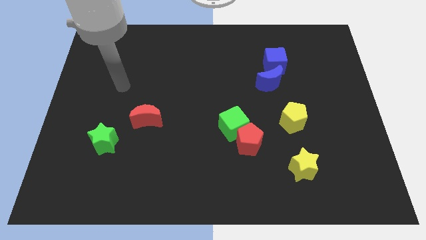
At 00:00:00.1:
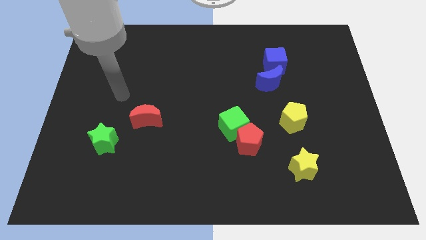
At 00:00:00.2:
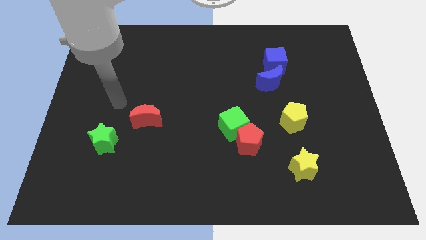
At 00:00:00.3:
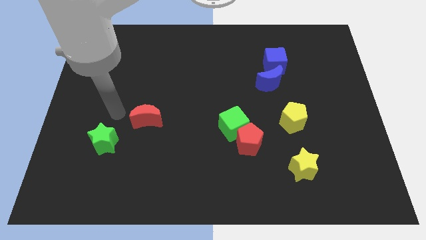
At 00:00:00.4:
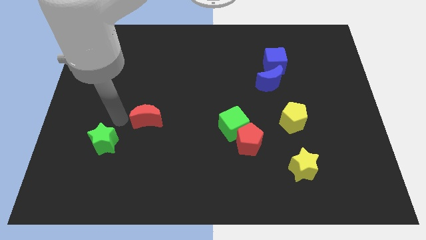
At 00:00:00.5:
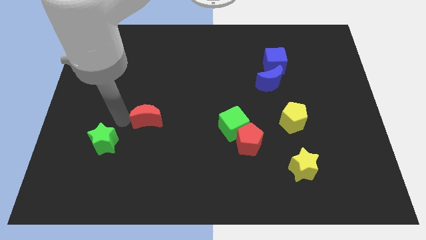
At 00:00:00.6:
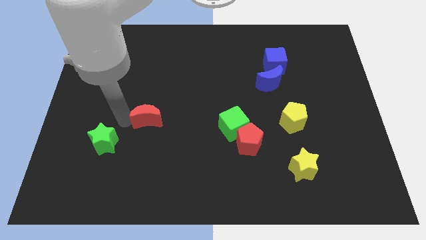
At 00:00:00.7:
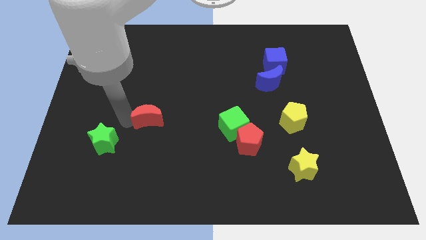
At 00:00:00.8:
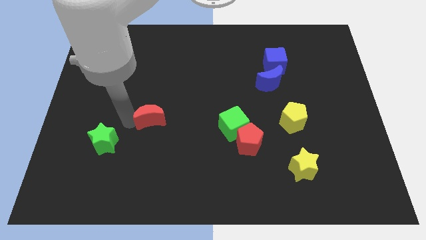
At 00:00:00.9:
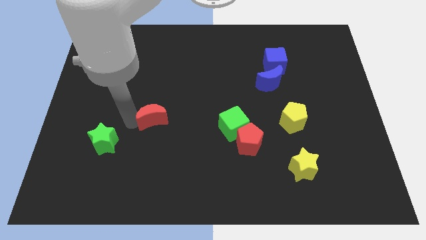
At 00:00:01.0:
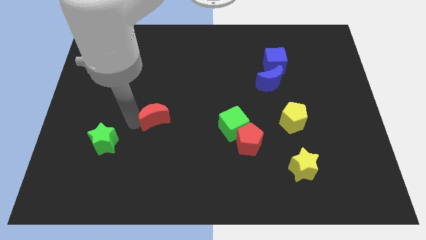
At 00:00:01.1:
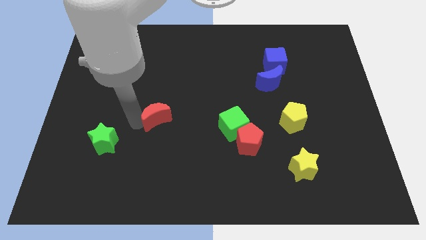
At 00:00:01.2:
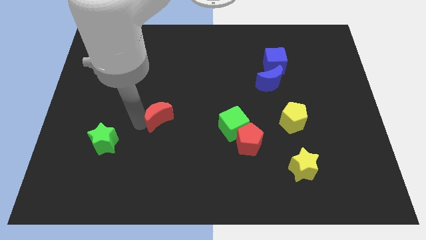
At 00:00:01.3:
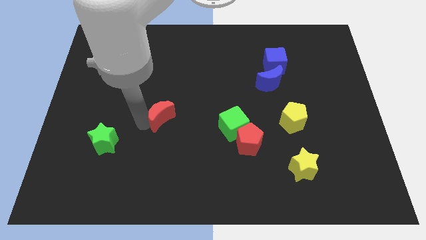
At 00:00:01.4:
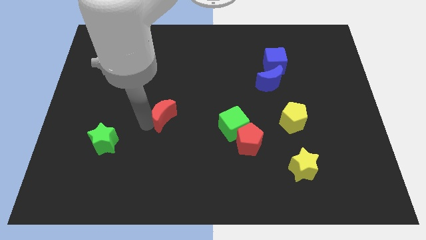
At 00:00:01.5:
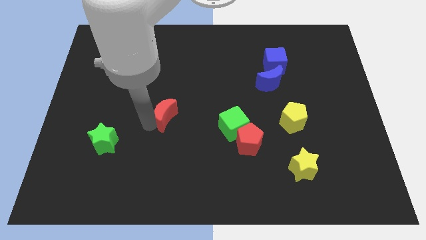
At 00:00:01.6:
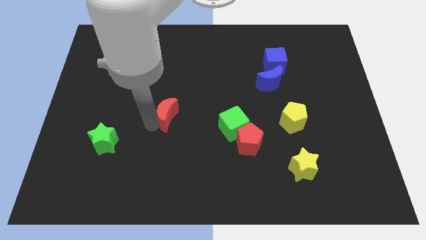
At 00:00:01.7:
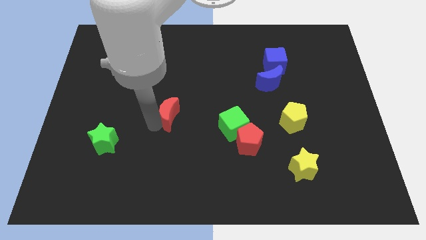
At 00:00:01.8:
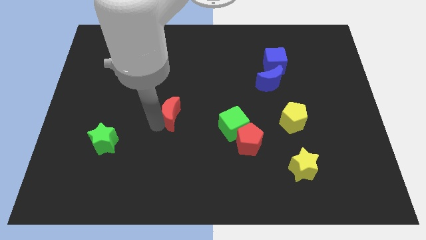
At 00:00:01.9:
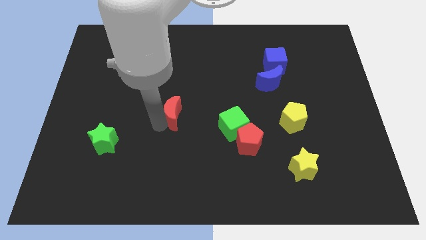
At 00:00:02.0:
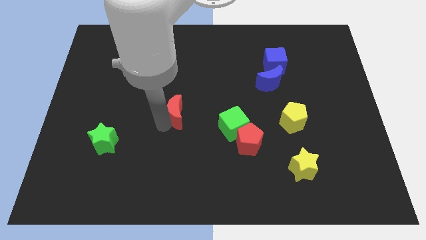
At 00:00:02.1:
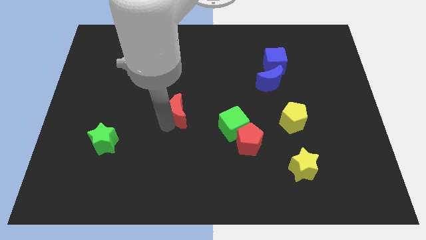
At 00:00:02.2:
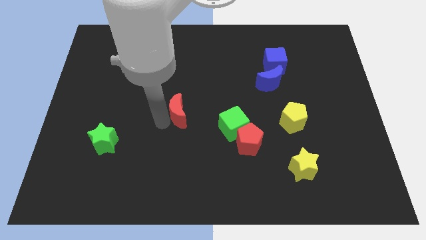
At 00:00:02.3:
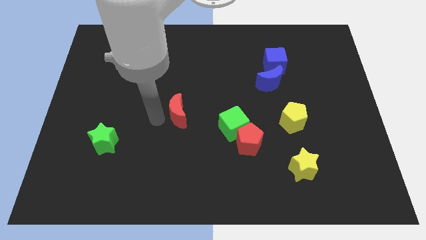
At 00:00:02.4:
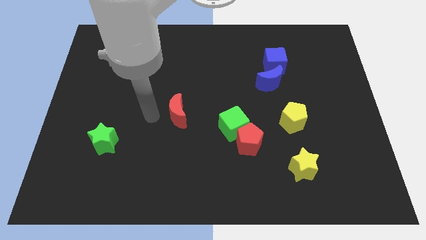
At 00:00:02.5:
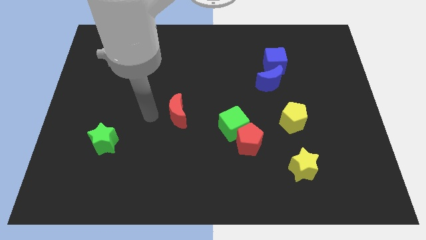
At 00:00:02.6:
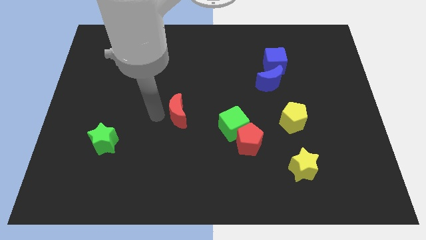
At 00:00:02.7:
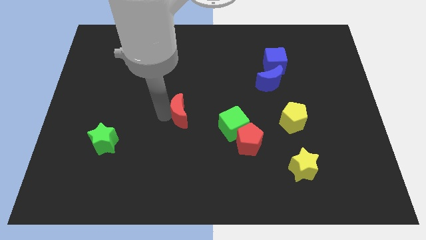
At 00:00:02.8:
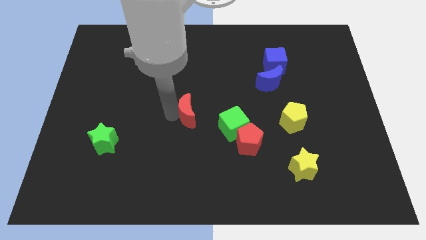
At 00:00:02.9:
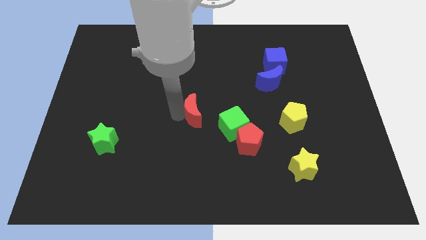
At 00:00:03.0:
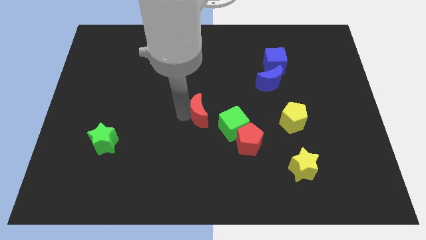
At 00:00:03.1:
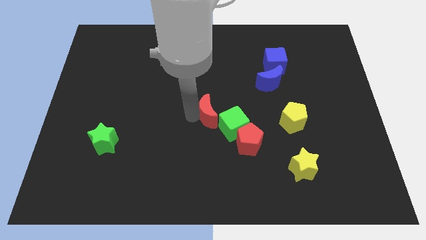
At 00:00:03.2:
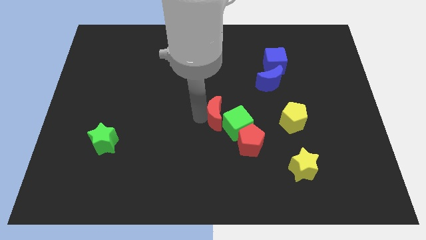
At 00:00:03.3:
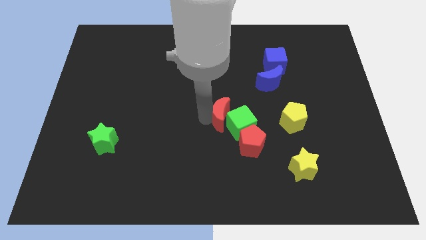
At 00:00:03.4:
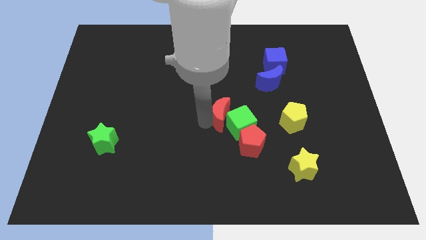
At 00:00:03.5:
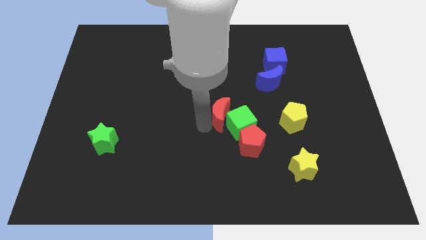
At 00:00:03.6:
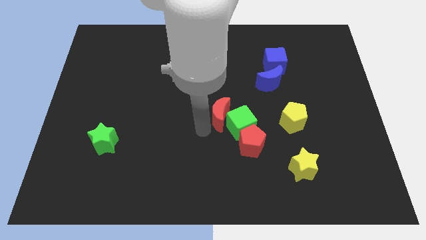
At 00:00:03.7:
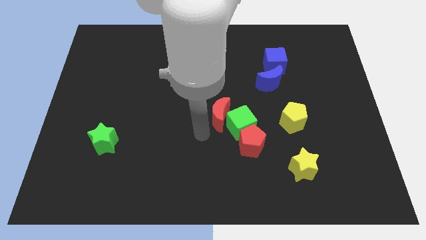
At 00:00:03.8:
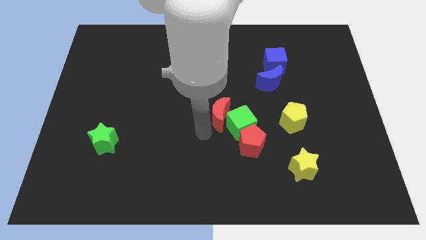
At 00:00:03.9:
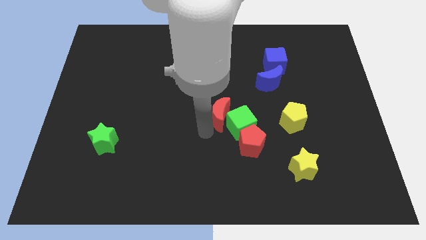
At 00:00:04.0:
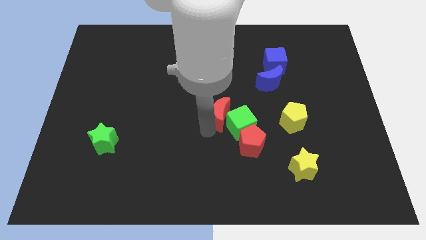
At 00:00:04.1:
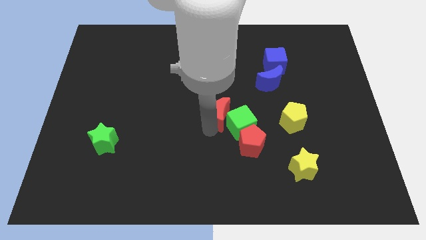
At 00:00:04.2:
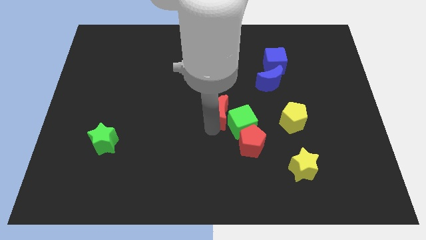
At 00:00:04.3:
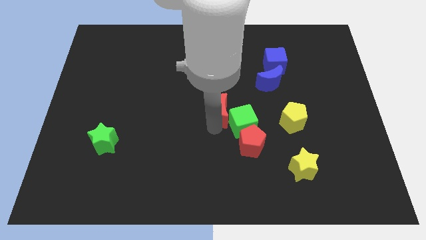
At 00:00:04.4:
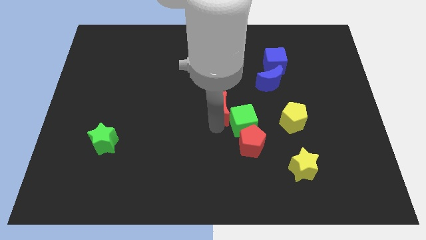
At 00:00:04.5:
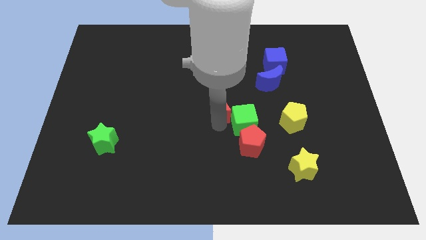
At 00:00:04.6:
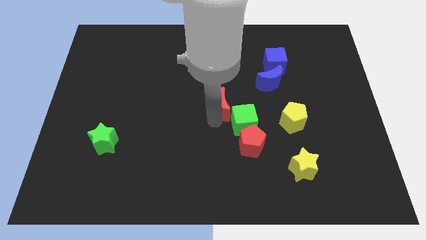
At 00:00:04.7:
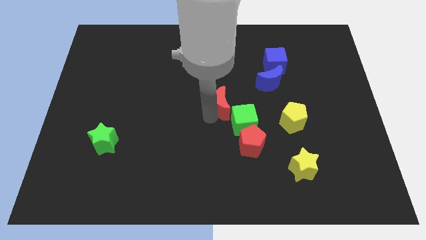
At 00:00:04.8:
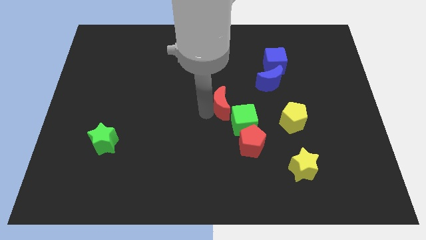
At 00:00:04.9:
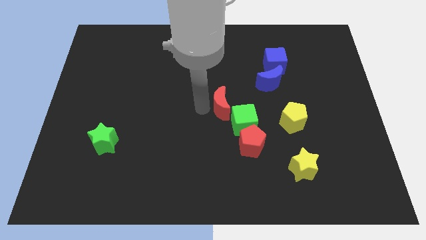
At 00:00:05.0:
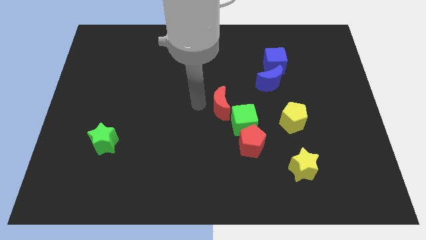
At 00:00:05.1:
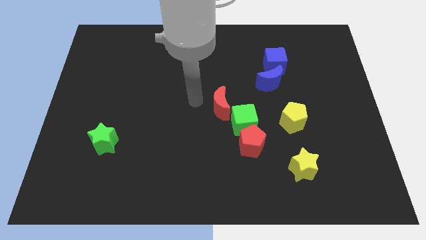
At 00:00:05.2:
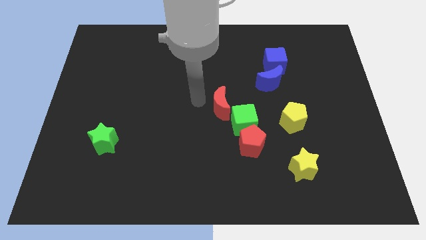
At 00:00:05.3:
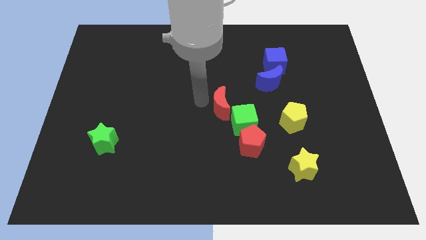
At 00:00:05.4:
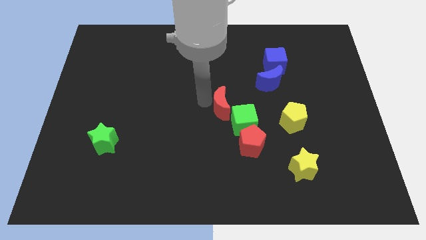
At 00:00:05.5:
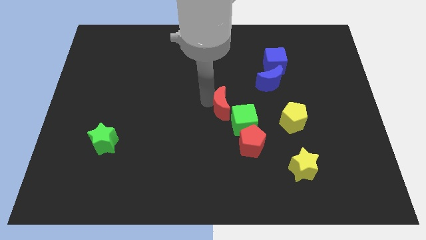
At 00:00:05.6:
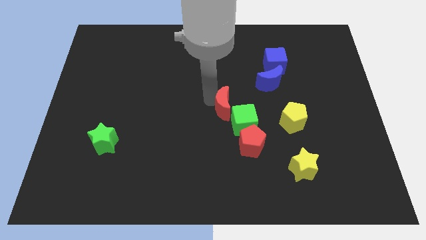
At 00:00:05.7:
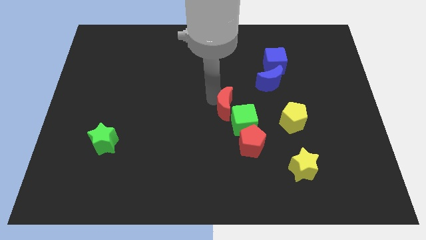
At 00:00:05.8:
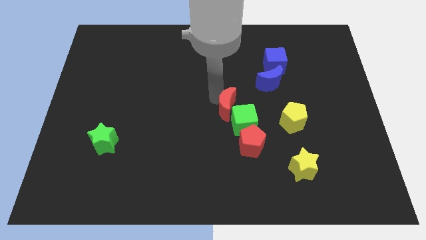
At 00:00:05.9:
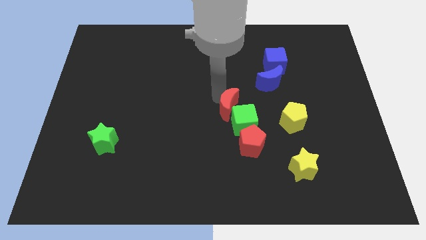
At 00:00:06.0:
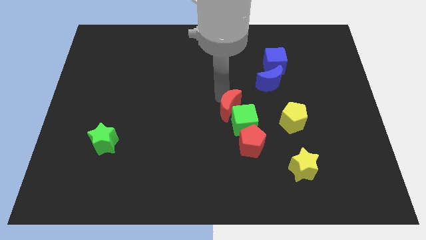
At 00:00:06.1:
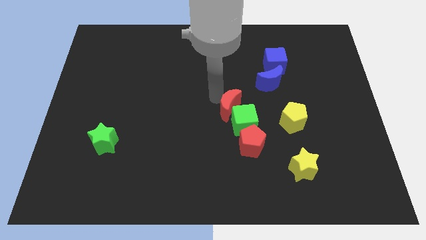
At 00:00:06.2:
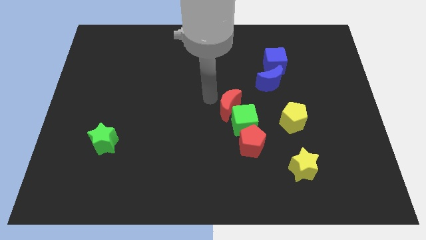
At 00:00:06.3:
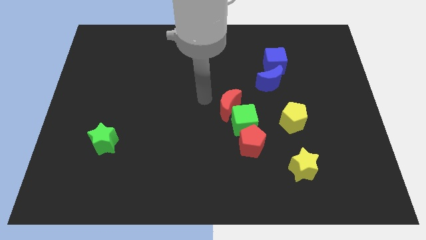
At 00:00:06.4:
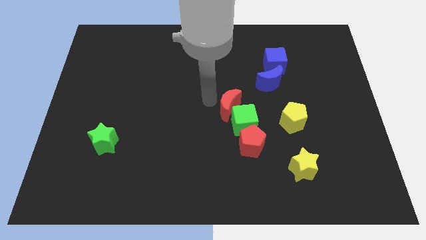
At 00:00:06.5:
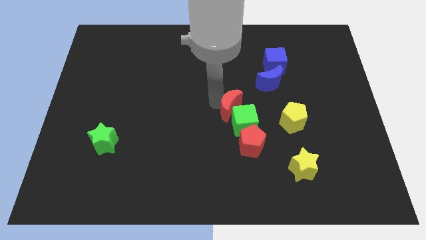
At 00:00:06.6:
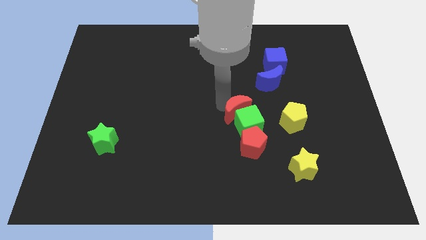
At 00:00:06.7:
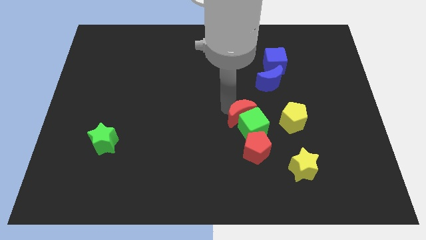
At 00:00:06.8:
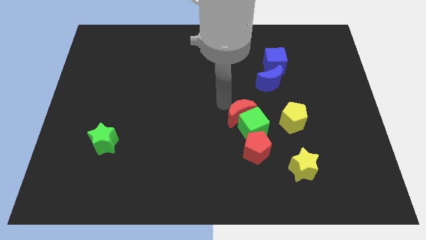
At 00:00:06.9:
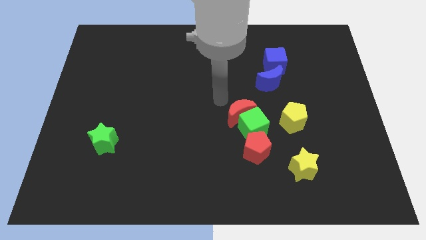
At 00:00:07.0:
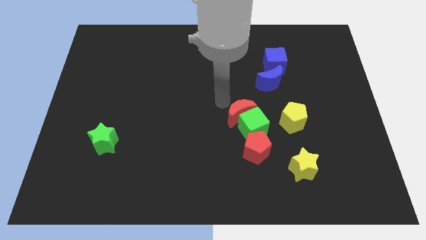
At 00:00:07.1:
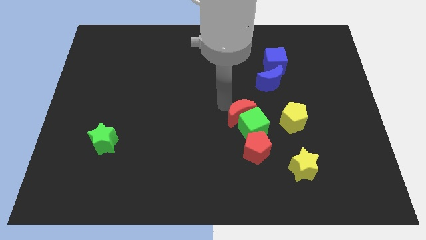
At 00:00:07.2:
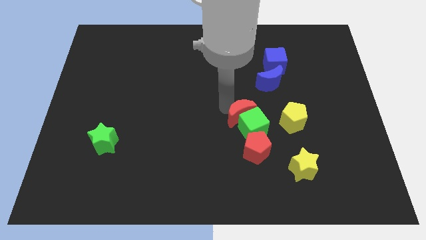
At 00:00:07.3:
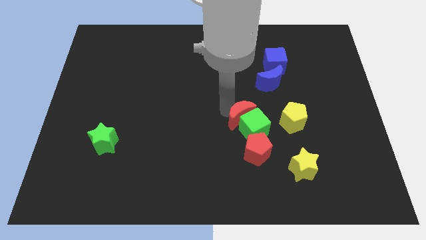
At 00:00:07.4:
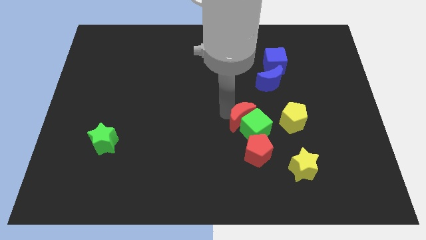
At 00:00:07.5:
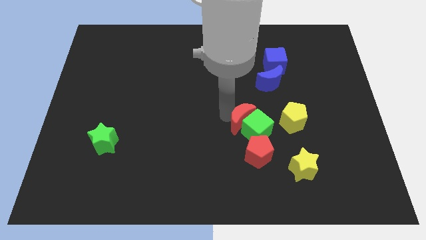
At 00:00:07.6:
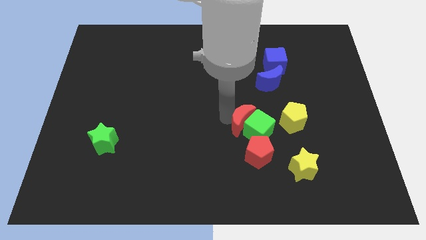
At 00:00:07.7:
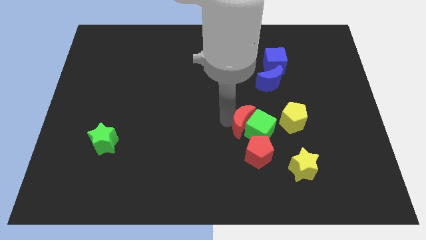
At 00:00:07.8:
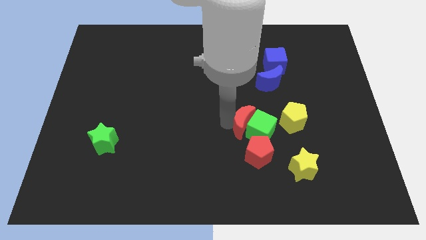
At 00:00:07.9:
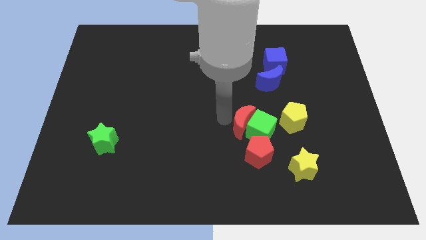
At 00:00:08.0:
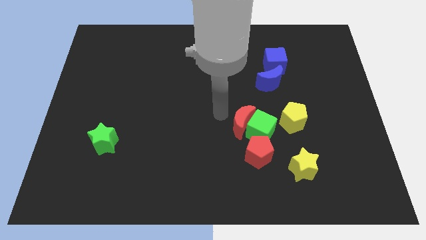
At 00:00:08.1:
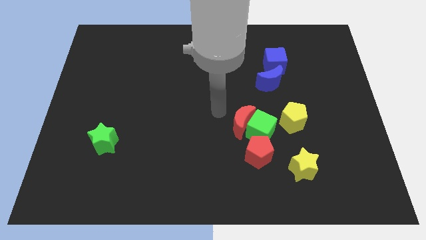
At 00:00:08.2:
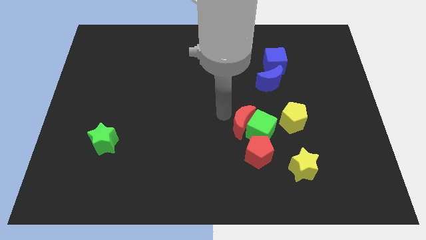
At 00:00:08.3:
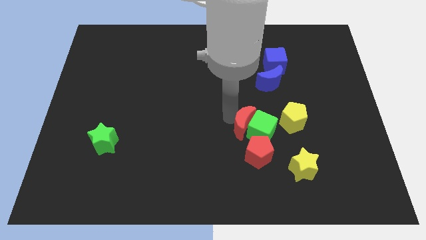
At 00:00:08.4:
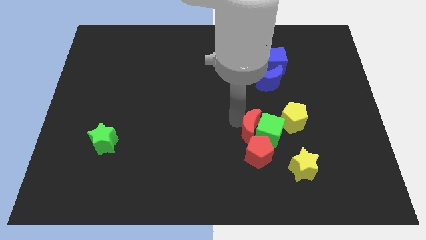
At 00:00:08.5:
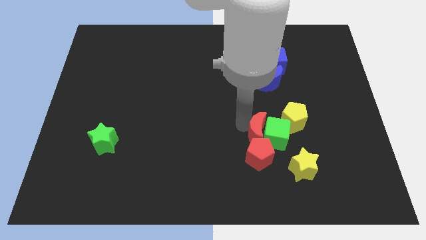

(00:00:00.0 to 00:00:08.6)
push the red moon diagonally down and to the left of the yellow pentagon
